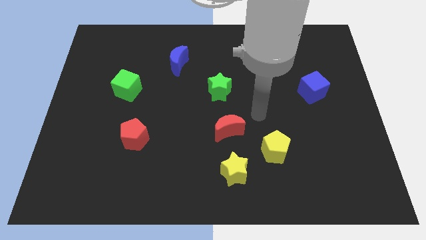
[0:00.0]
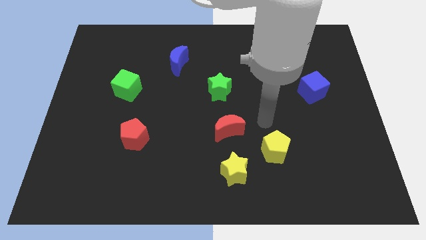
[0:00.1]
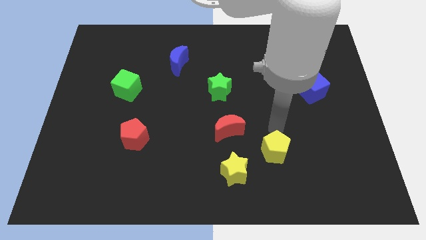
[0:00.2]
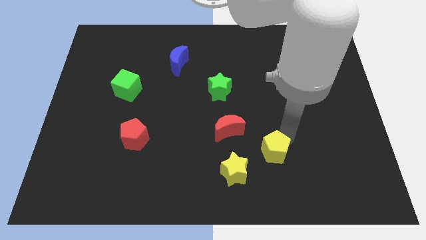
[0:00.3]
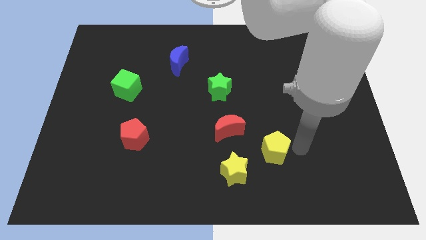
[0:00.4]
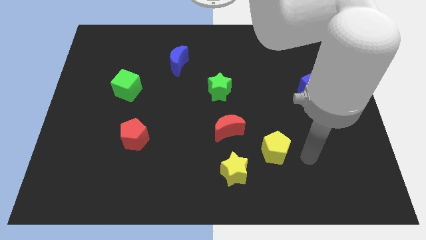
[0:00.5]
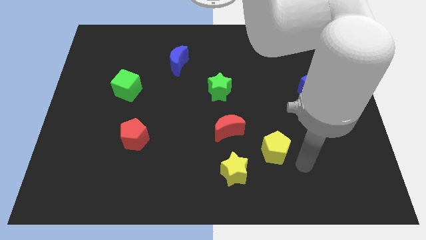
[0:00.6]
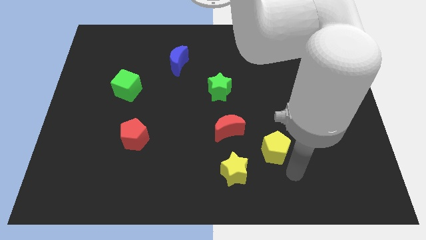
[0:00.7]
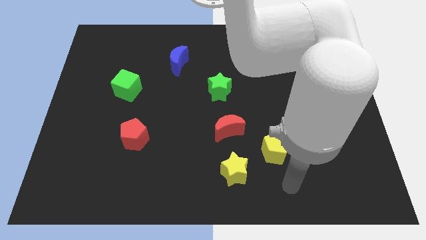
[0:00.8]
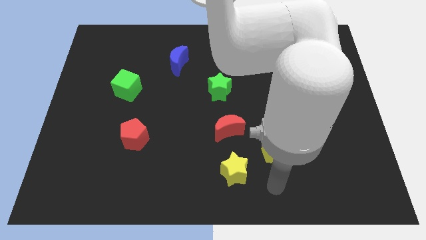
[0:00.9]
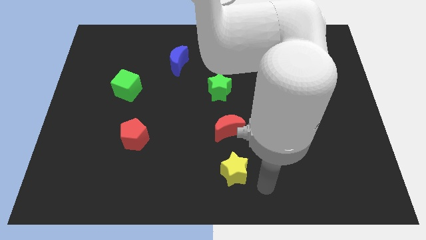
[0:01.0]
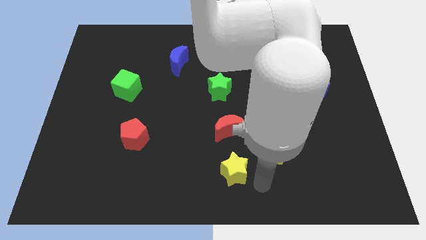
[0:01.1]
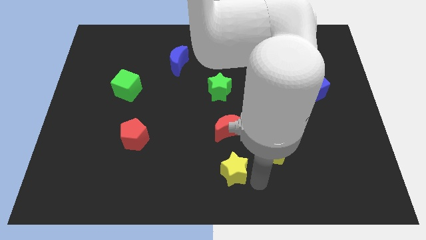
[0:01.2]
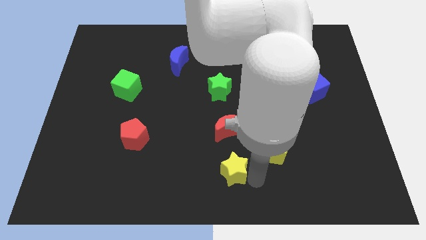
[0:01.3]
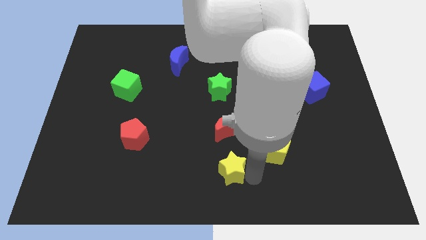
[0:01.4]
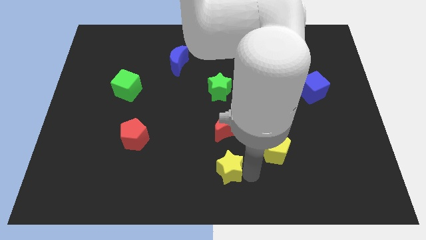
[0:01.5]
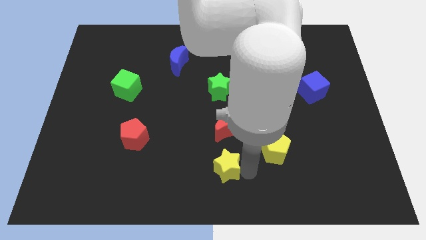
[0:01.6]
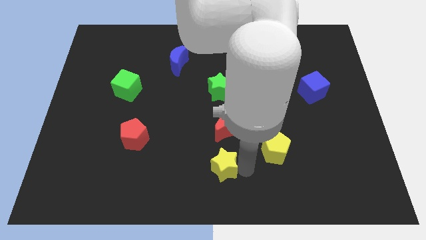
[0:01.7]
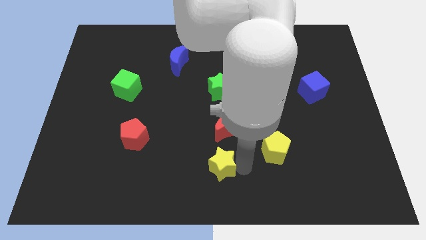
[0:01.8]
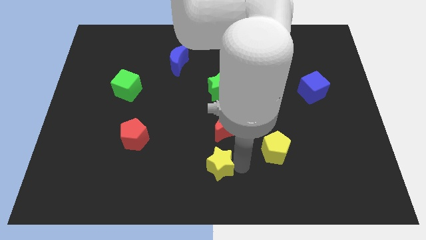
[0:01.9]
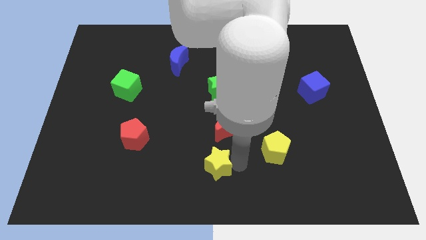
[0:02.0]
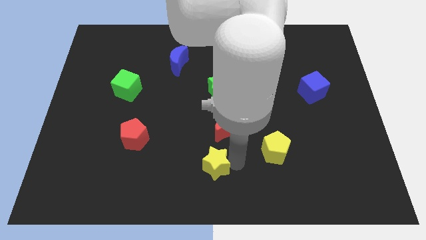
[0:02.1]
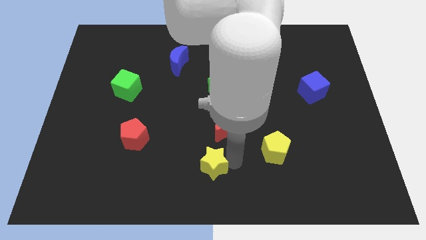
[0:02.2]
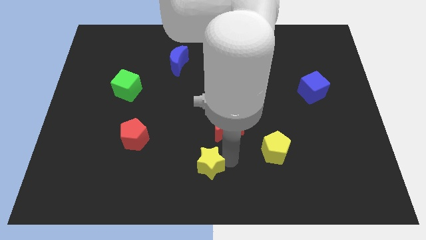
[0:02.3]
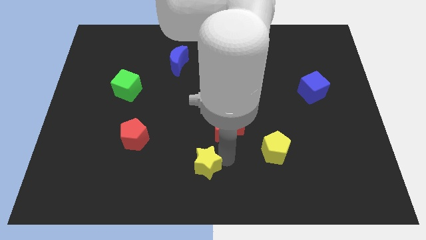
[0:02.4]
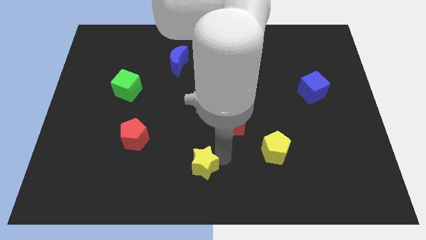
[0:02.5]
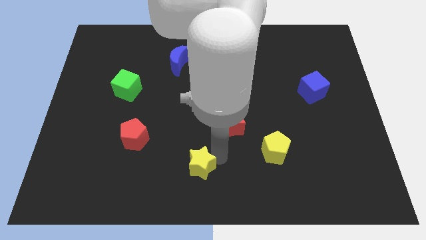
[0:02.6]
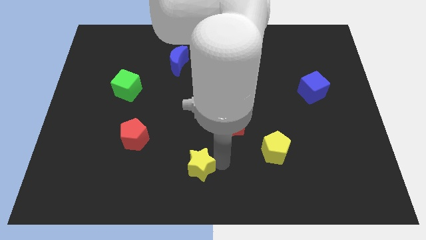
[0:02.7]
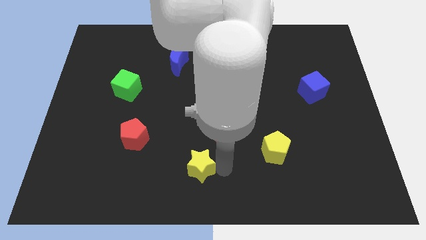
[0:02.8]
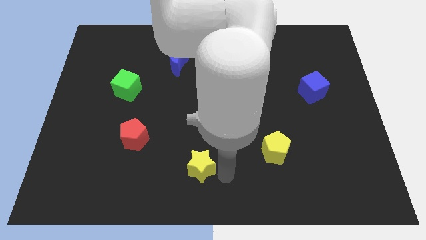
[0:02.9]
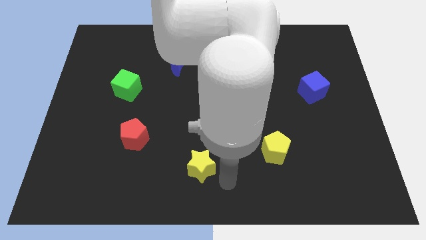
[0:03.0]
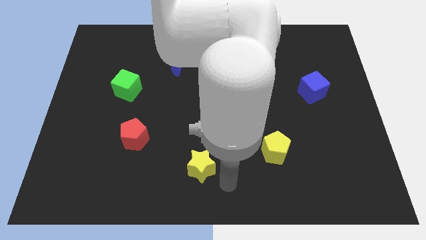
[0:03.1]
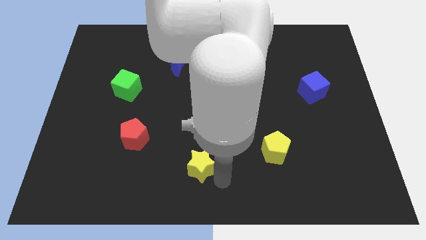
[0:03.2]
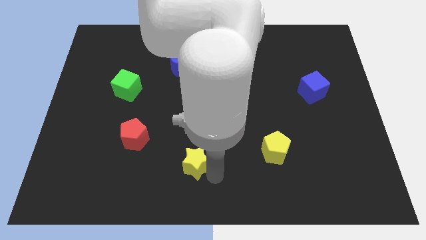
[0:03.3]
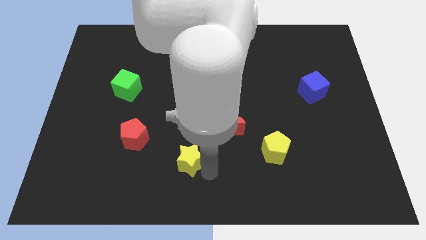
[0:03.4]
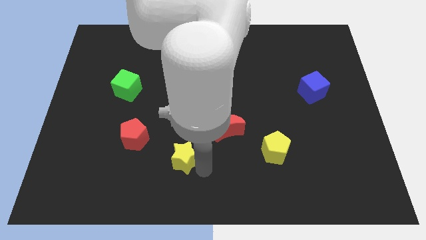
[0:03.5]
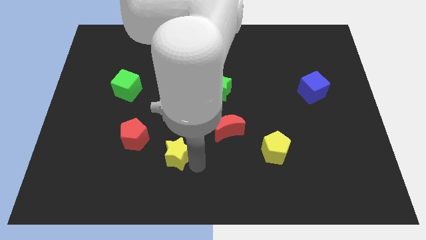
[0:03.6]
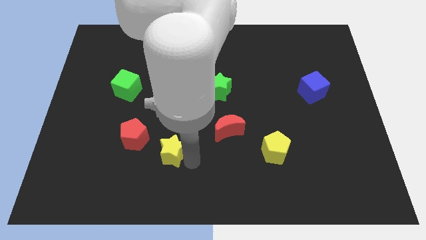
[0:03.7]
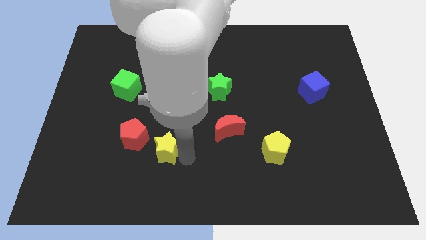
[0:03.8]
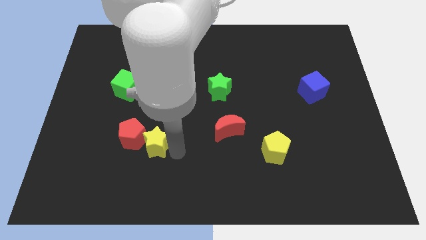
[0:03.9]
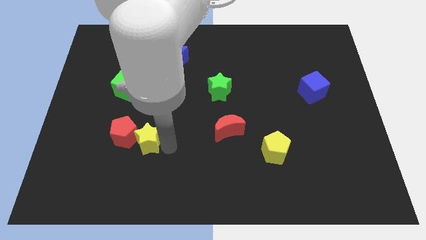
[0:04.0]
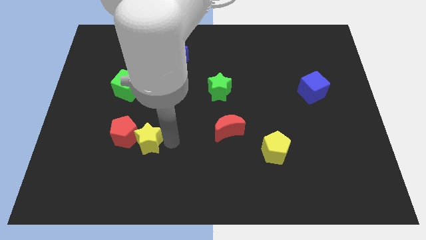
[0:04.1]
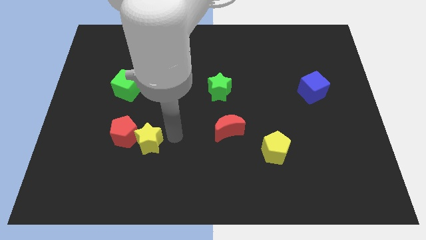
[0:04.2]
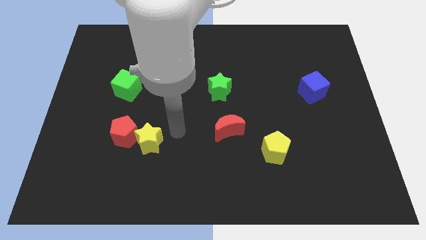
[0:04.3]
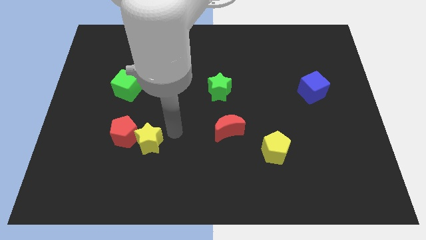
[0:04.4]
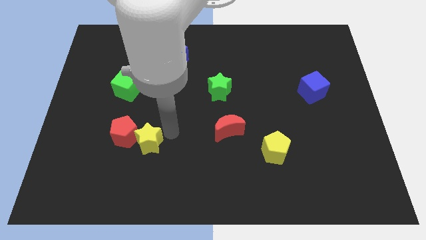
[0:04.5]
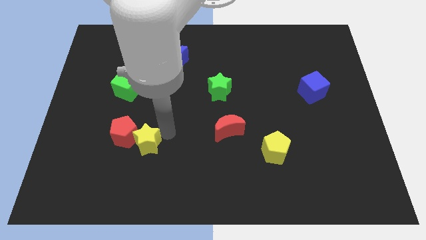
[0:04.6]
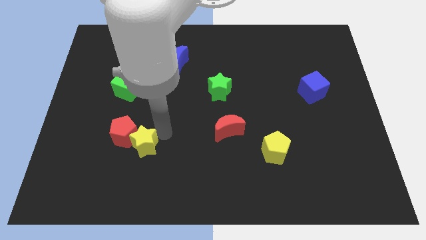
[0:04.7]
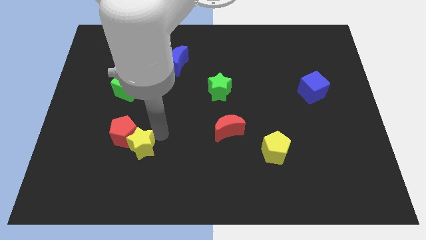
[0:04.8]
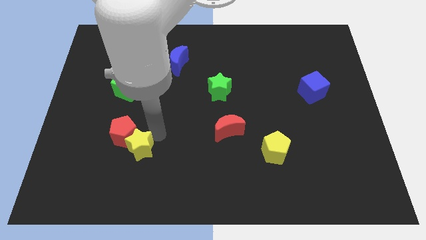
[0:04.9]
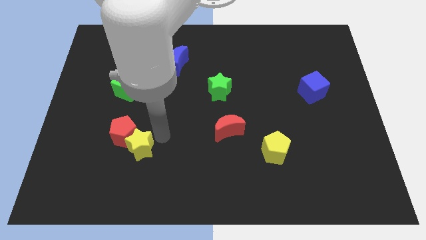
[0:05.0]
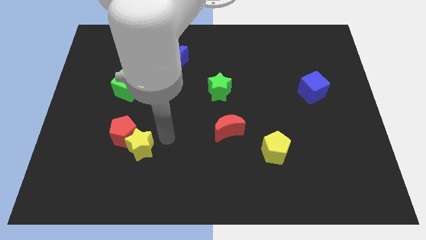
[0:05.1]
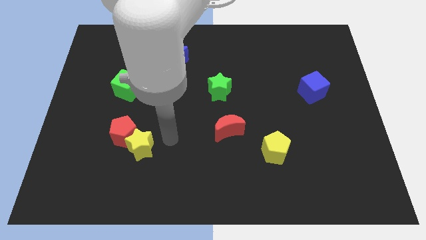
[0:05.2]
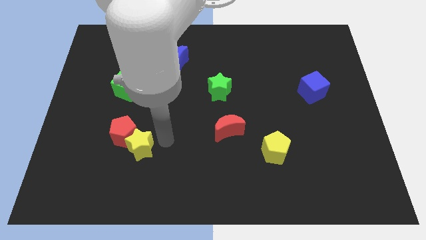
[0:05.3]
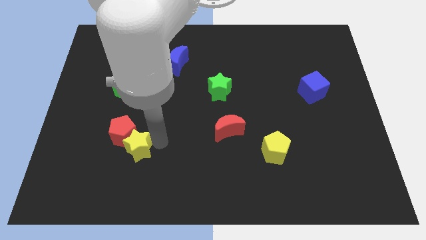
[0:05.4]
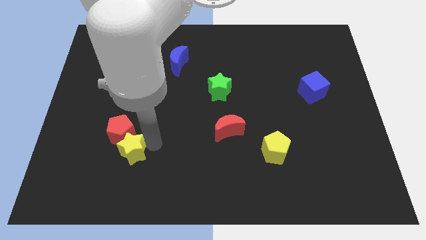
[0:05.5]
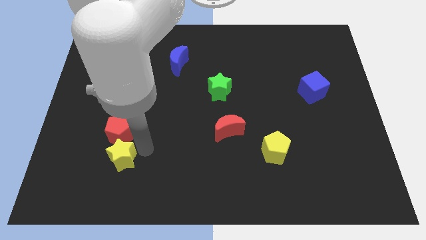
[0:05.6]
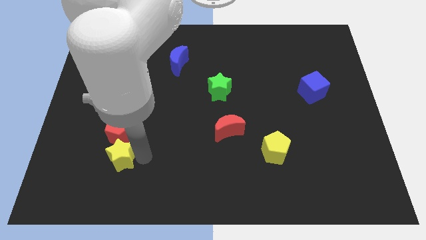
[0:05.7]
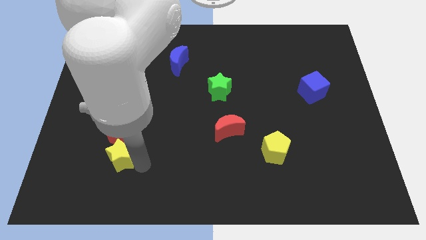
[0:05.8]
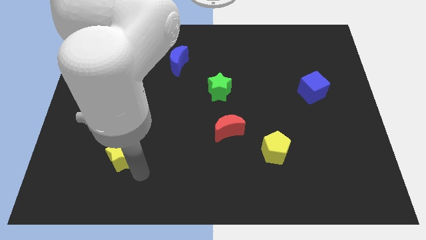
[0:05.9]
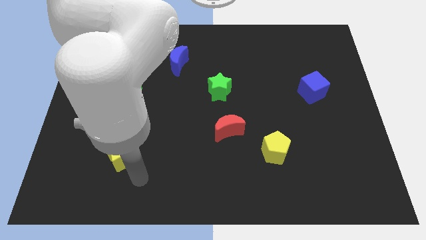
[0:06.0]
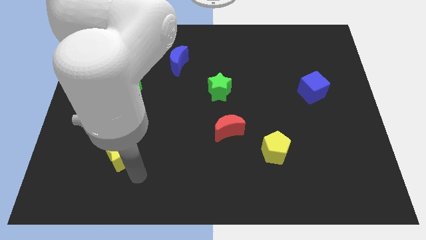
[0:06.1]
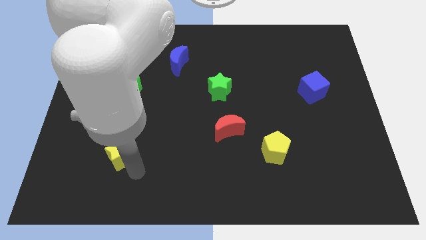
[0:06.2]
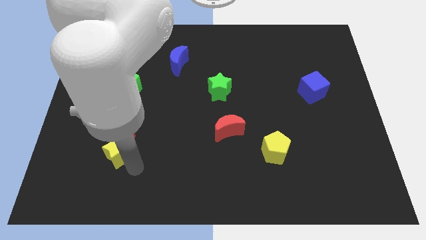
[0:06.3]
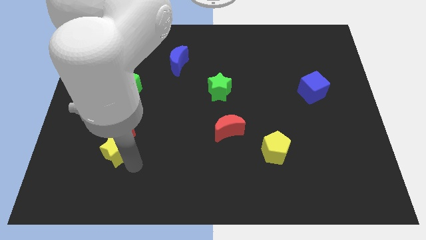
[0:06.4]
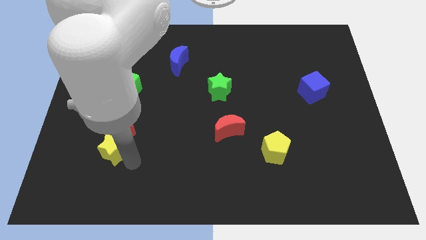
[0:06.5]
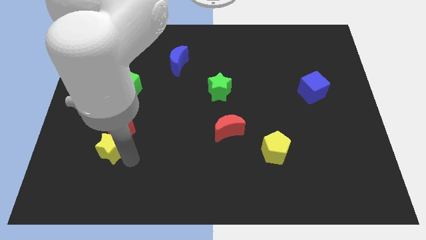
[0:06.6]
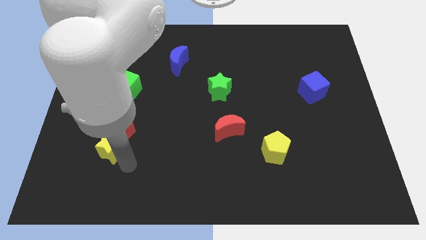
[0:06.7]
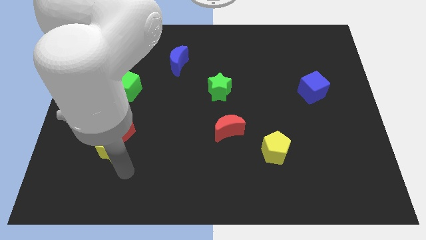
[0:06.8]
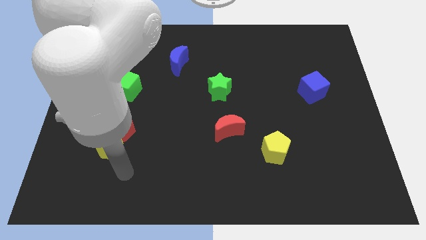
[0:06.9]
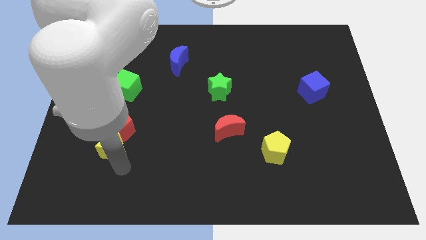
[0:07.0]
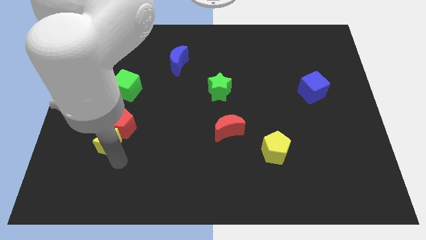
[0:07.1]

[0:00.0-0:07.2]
slide the yellow star to the bottom of the green cube
